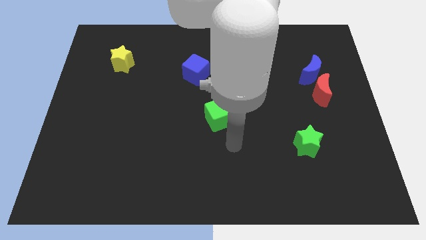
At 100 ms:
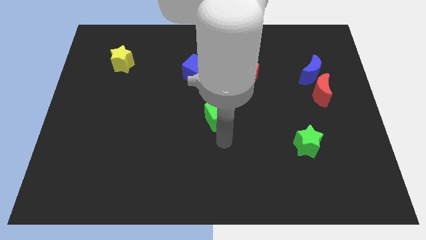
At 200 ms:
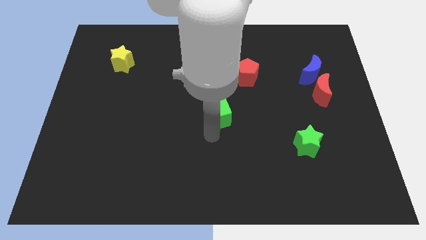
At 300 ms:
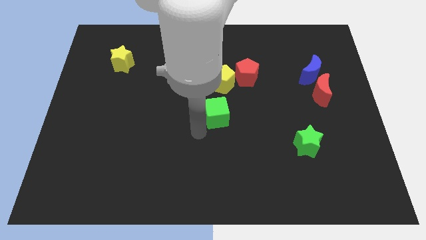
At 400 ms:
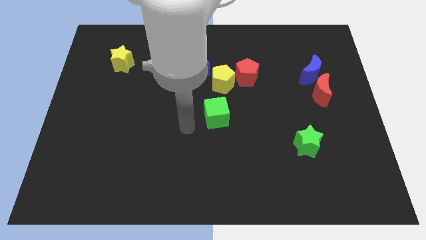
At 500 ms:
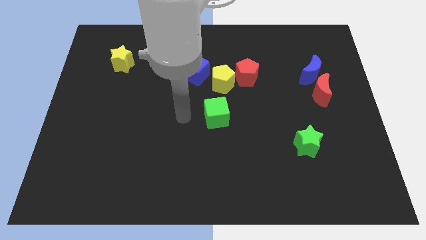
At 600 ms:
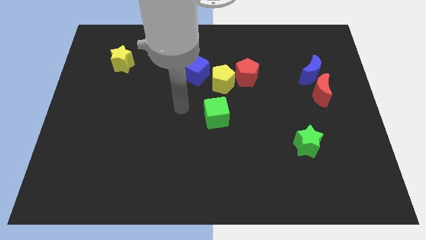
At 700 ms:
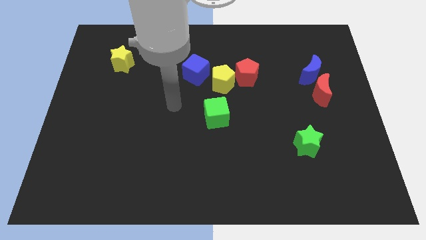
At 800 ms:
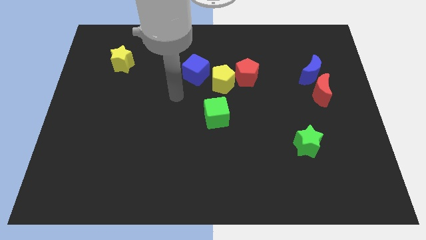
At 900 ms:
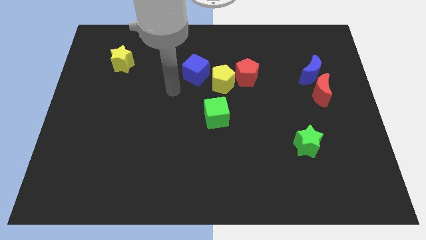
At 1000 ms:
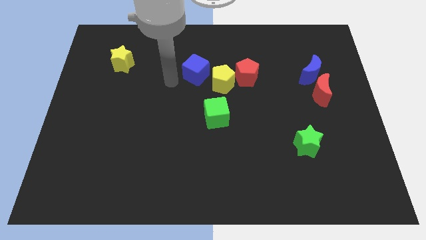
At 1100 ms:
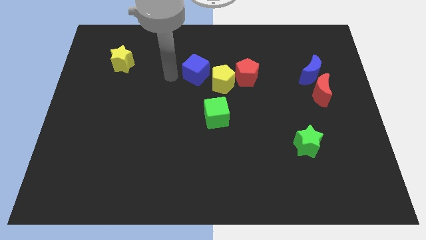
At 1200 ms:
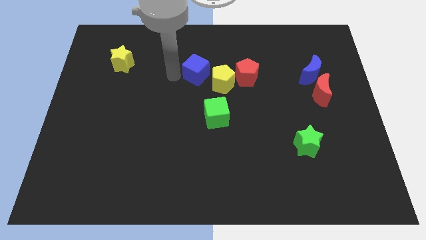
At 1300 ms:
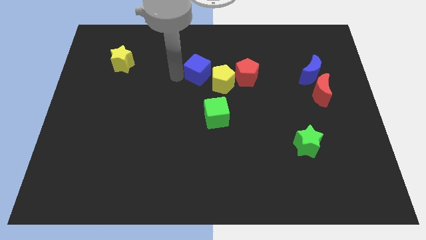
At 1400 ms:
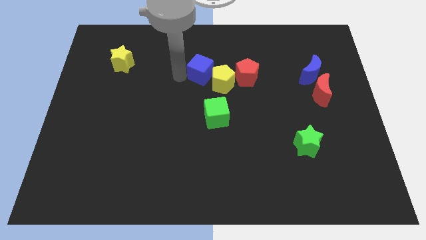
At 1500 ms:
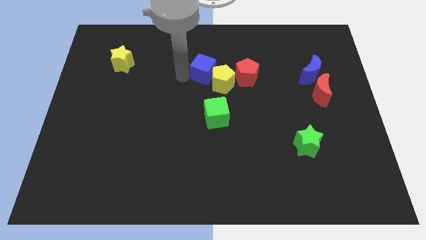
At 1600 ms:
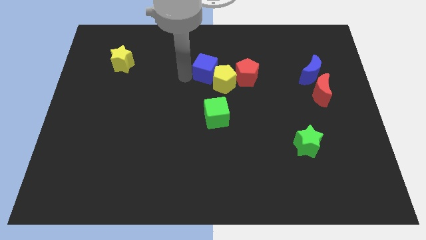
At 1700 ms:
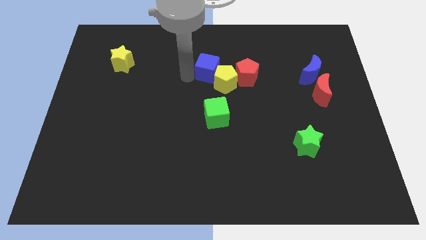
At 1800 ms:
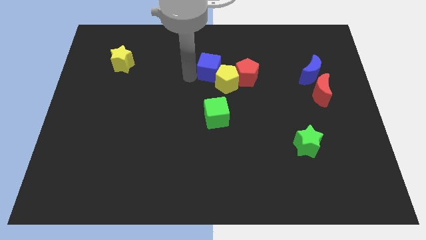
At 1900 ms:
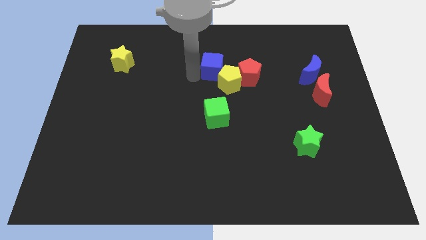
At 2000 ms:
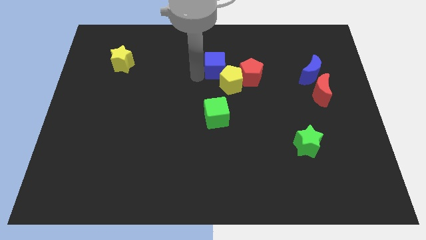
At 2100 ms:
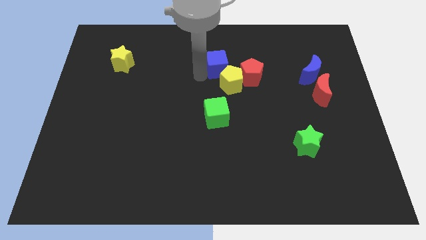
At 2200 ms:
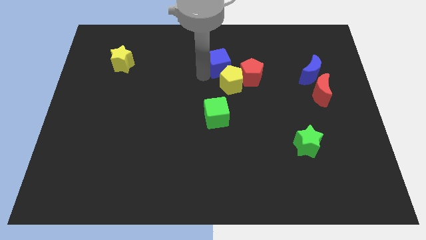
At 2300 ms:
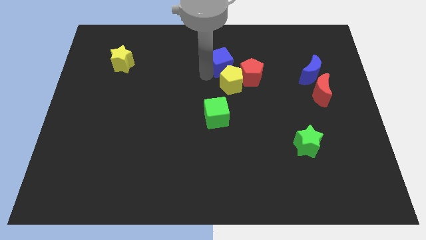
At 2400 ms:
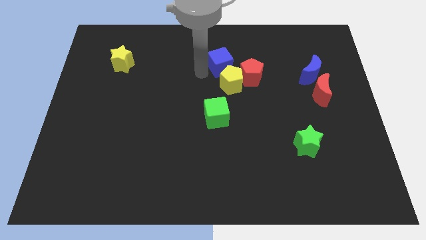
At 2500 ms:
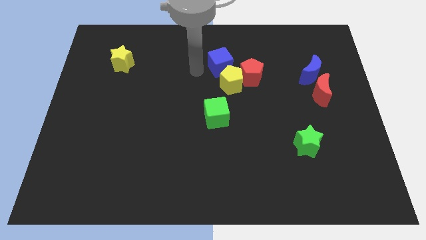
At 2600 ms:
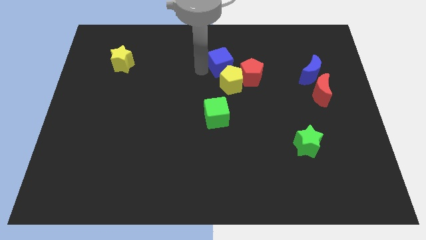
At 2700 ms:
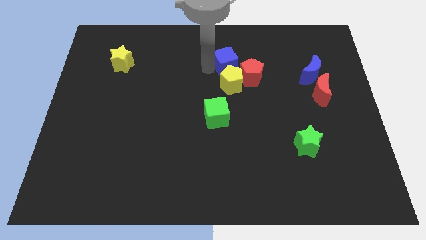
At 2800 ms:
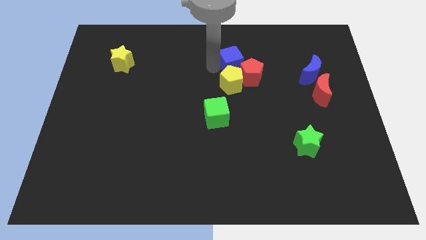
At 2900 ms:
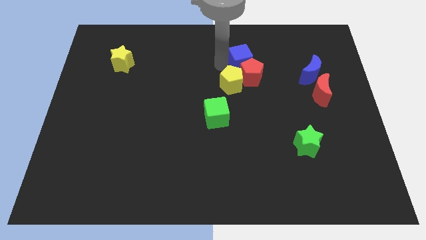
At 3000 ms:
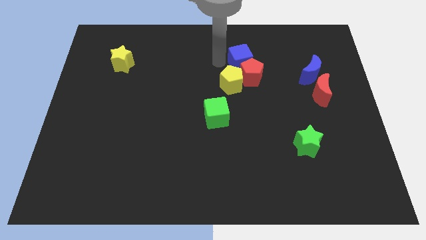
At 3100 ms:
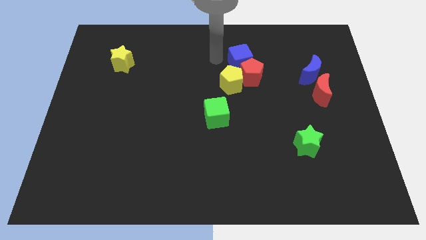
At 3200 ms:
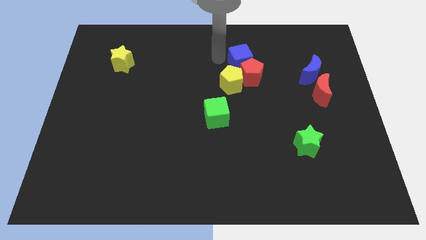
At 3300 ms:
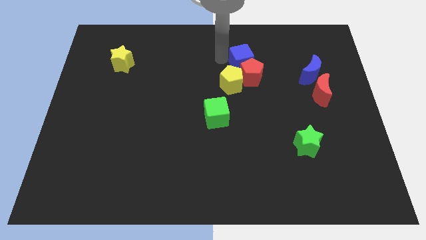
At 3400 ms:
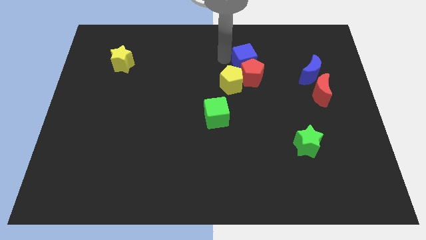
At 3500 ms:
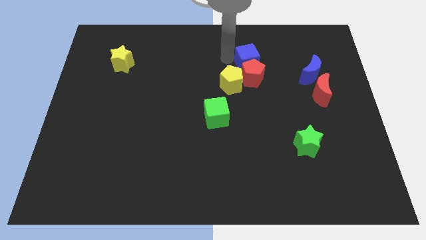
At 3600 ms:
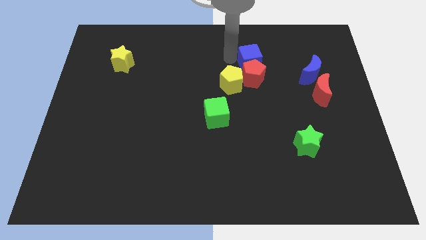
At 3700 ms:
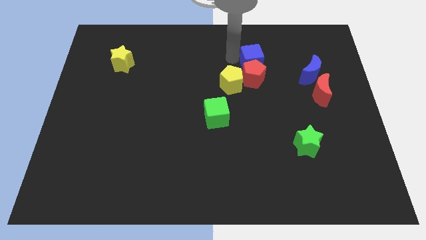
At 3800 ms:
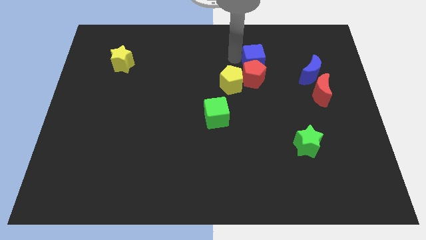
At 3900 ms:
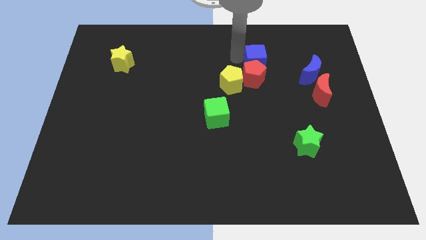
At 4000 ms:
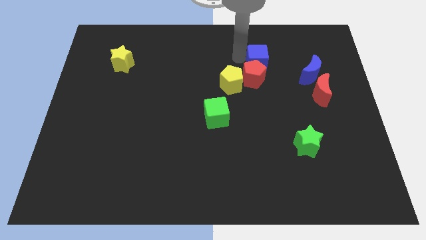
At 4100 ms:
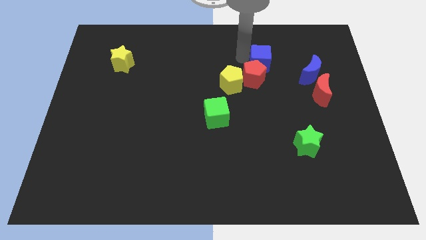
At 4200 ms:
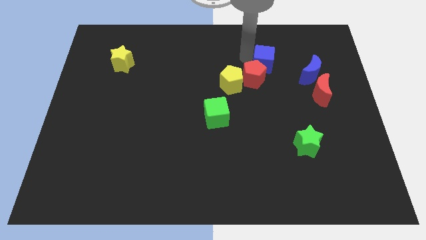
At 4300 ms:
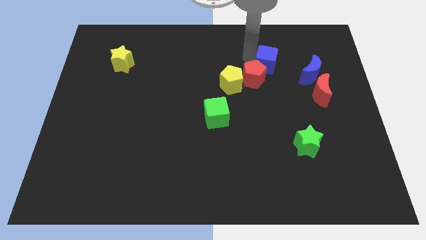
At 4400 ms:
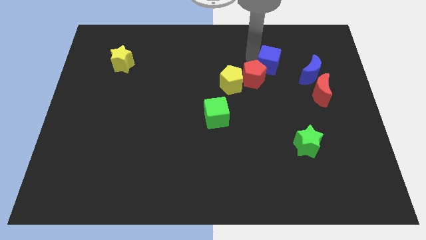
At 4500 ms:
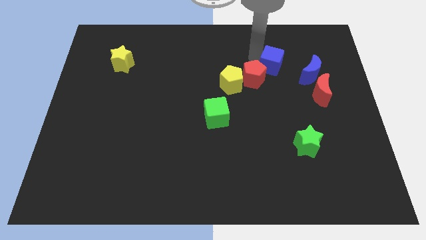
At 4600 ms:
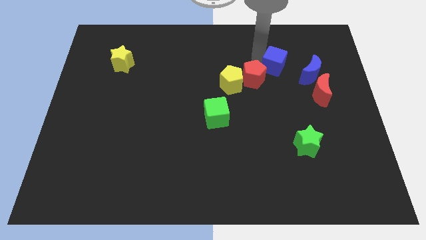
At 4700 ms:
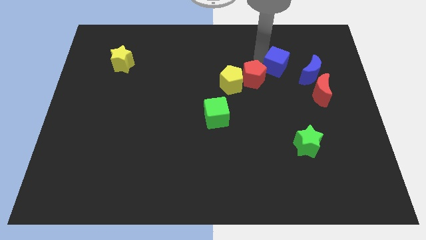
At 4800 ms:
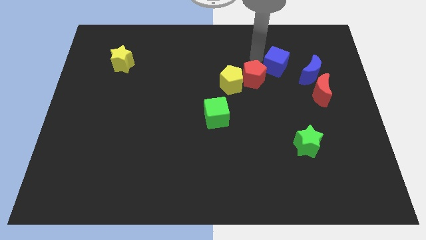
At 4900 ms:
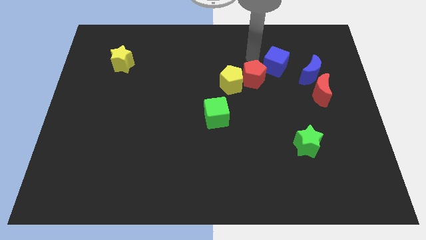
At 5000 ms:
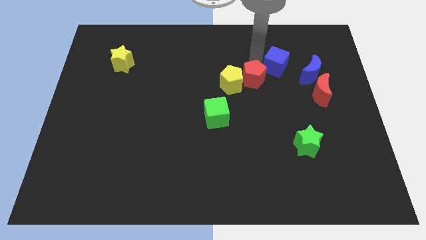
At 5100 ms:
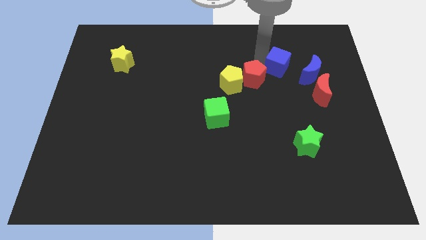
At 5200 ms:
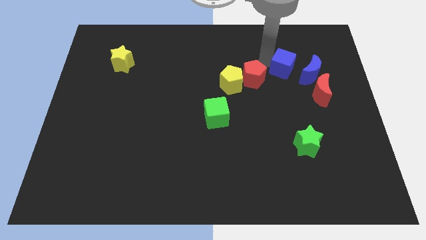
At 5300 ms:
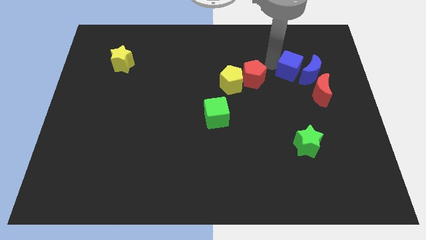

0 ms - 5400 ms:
move the blue cube close to the blue moon

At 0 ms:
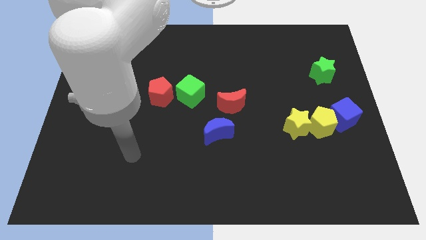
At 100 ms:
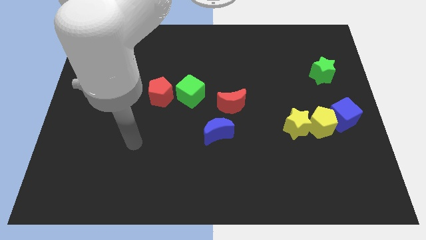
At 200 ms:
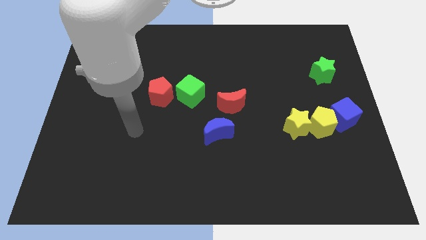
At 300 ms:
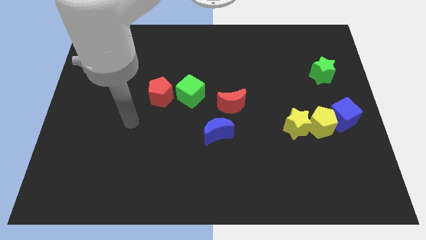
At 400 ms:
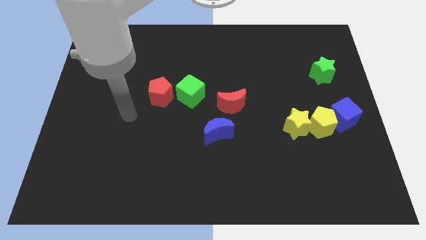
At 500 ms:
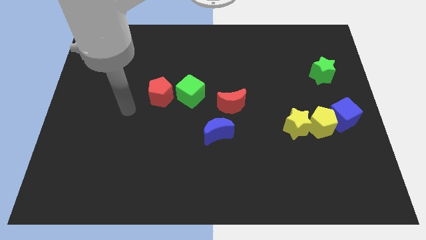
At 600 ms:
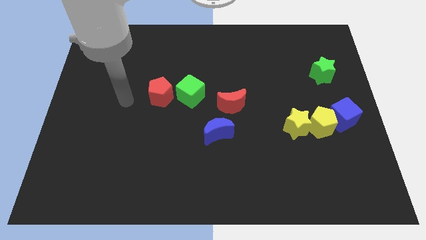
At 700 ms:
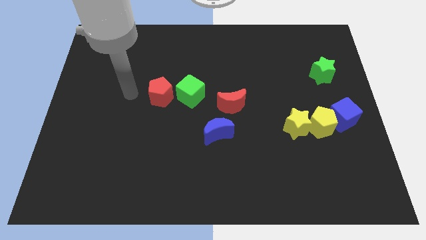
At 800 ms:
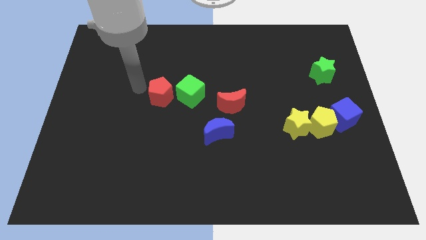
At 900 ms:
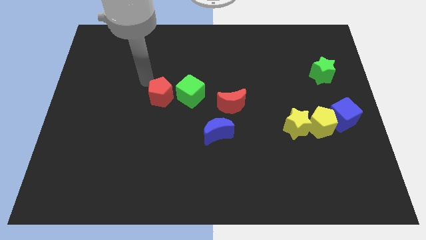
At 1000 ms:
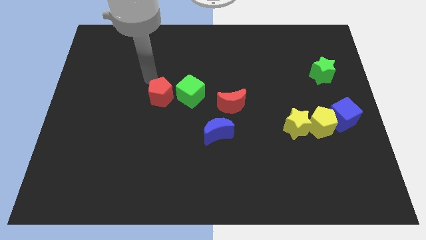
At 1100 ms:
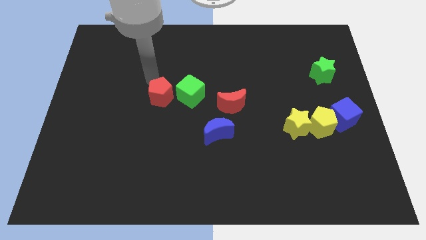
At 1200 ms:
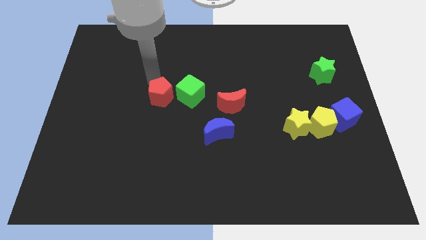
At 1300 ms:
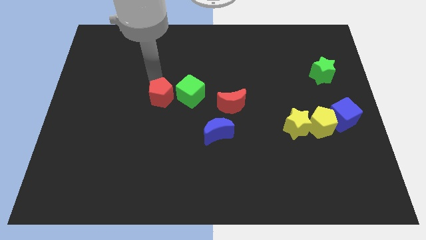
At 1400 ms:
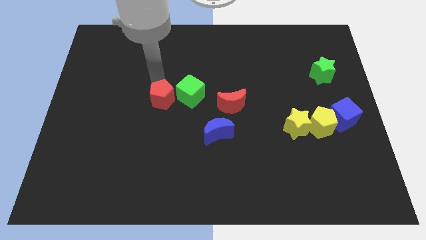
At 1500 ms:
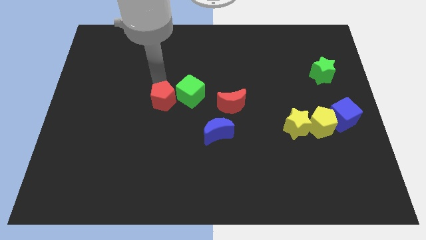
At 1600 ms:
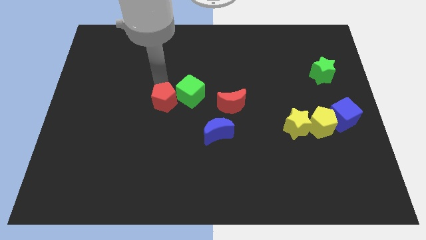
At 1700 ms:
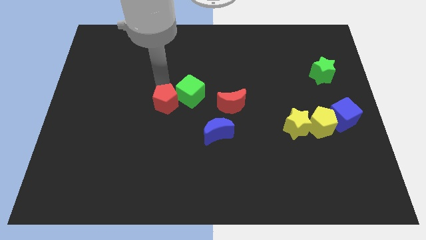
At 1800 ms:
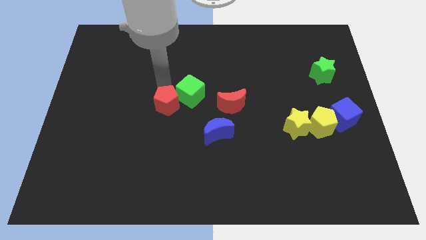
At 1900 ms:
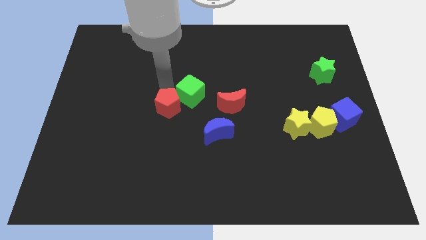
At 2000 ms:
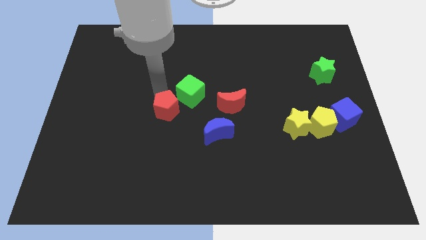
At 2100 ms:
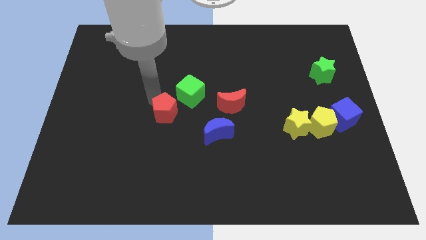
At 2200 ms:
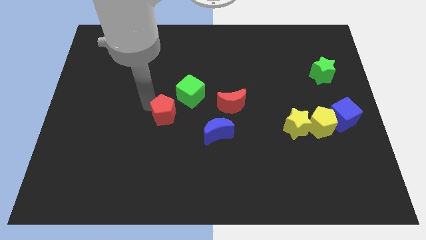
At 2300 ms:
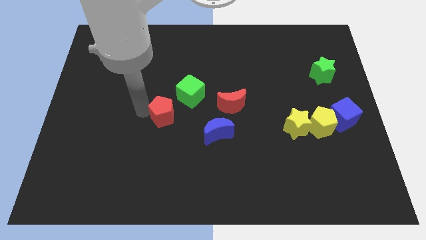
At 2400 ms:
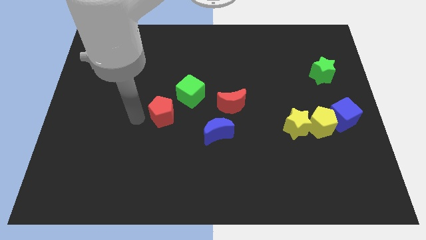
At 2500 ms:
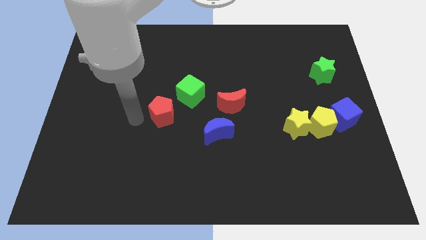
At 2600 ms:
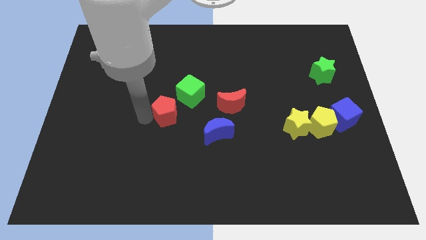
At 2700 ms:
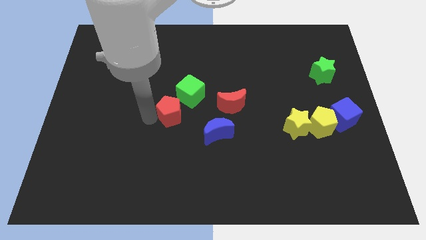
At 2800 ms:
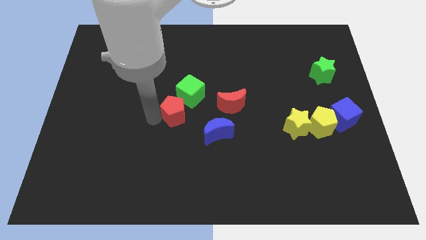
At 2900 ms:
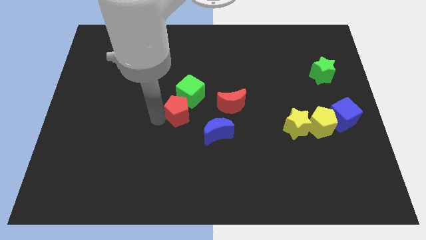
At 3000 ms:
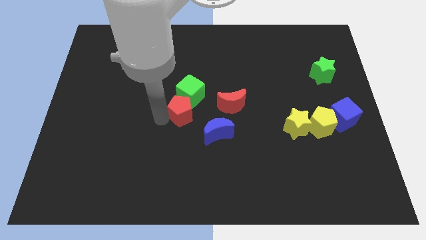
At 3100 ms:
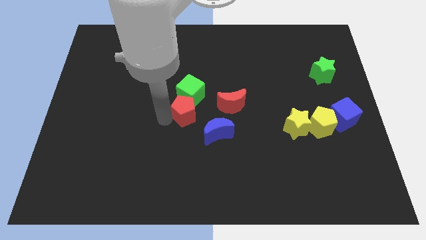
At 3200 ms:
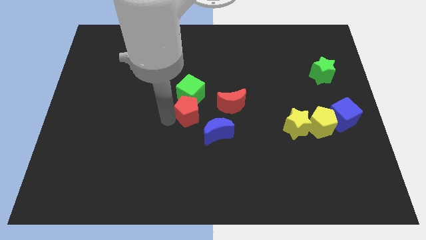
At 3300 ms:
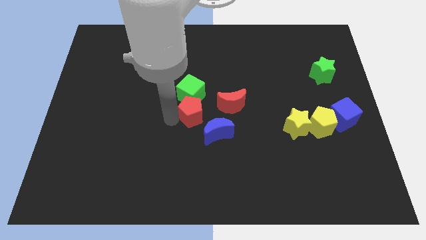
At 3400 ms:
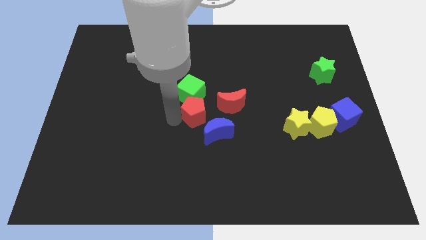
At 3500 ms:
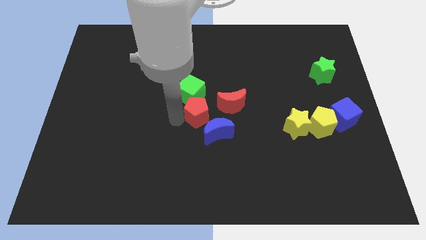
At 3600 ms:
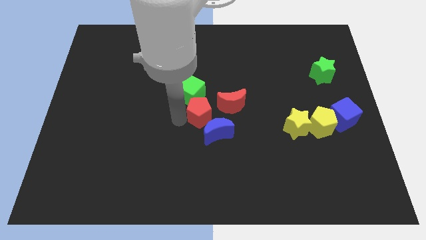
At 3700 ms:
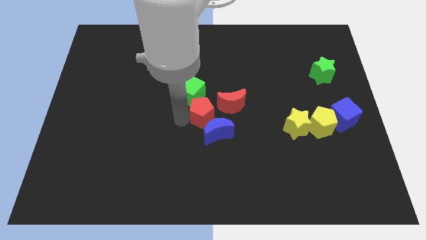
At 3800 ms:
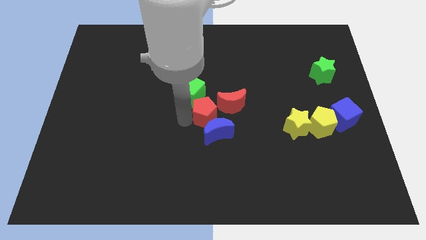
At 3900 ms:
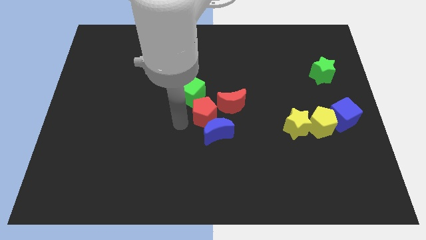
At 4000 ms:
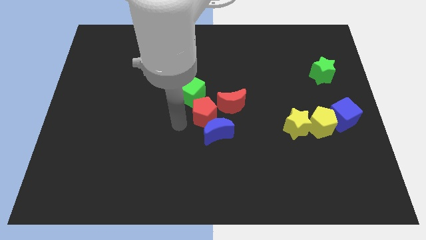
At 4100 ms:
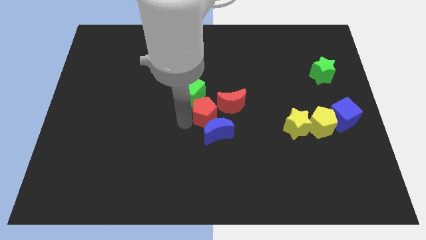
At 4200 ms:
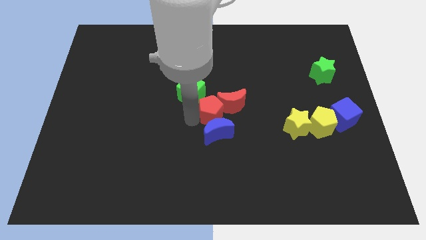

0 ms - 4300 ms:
put the red pentagon towards the red moon
